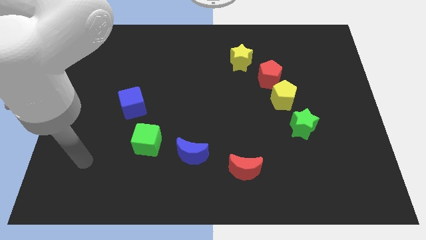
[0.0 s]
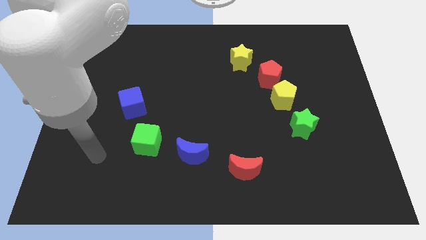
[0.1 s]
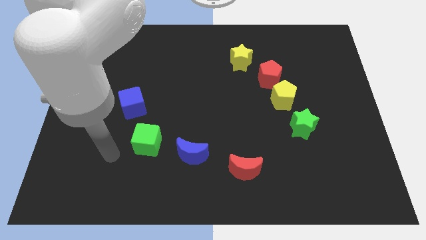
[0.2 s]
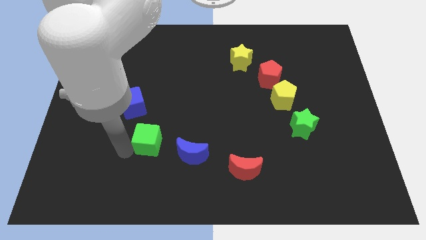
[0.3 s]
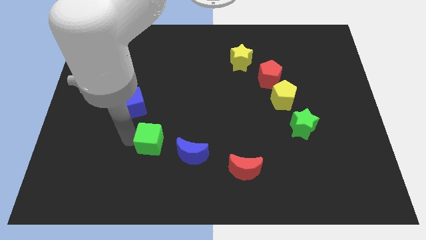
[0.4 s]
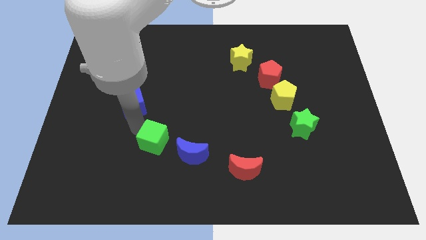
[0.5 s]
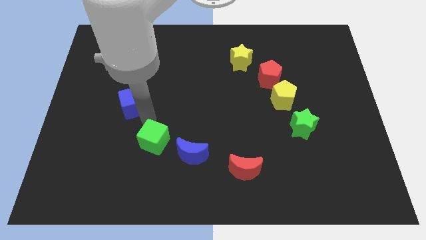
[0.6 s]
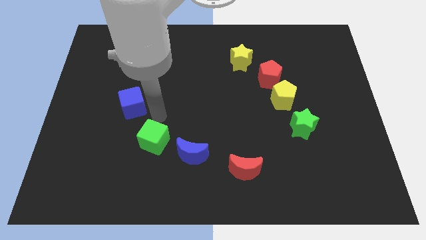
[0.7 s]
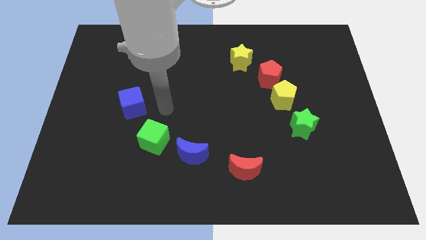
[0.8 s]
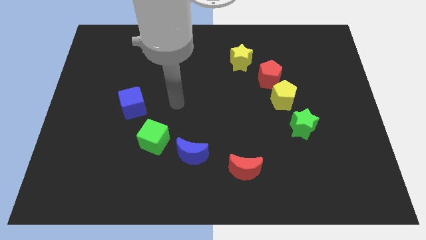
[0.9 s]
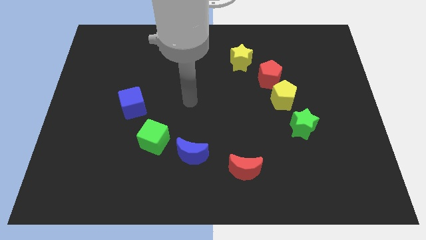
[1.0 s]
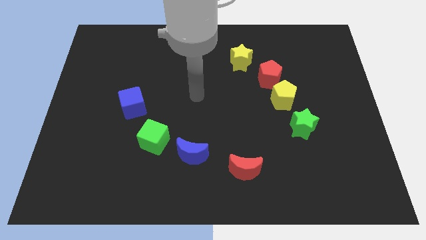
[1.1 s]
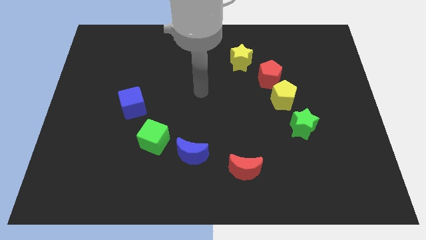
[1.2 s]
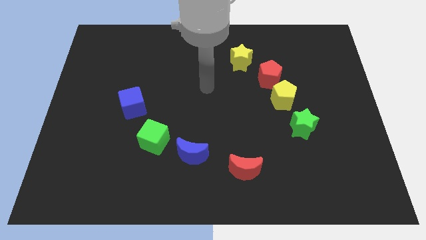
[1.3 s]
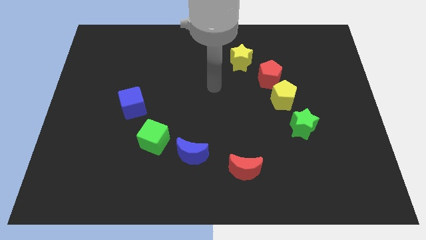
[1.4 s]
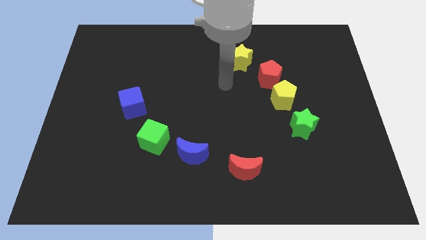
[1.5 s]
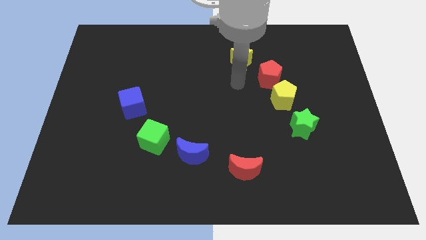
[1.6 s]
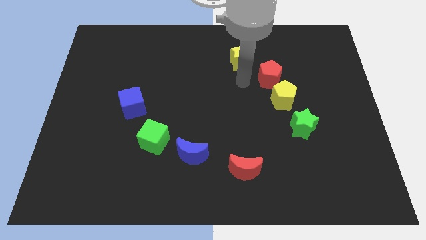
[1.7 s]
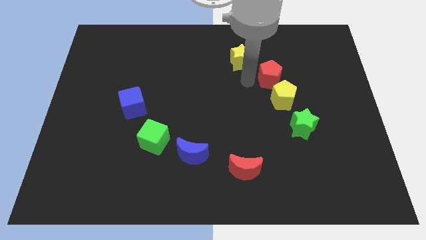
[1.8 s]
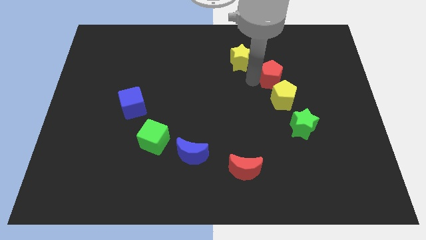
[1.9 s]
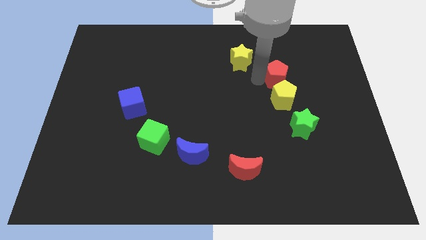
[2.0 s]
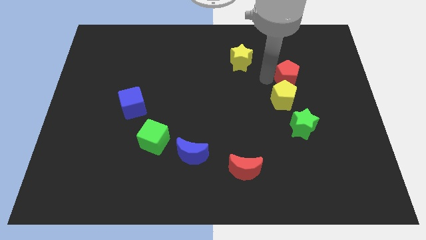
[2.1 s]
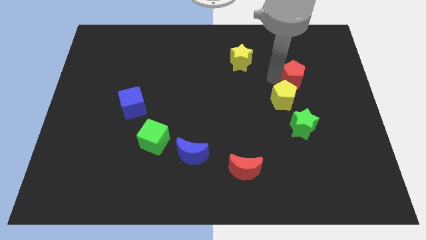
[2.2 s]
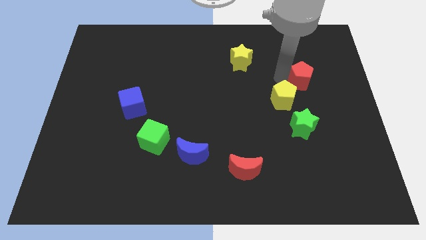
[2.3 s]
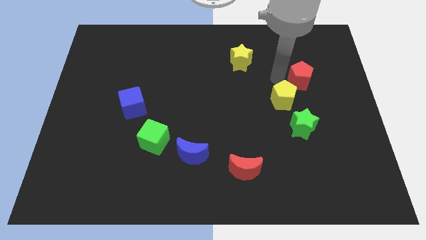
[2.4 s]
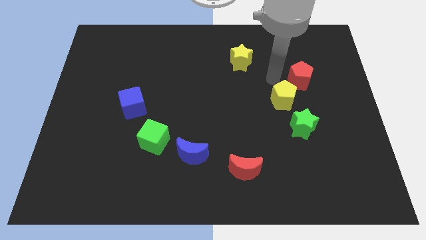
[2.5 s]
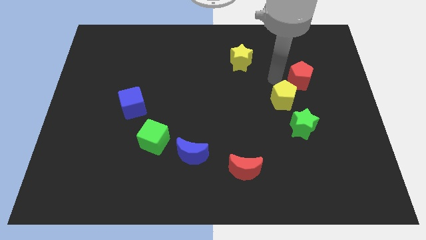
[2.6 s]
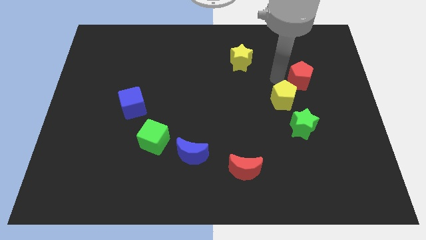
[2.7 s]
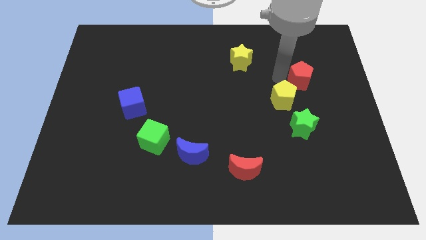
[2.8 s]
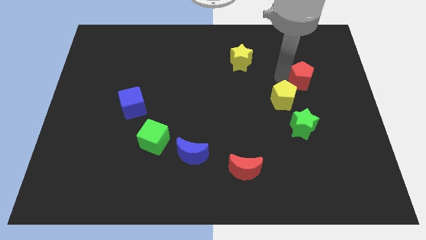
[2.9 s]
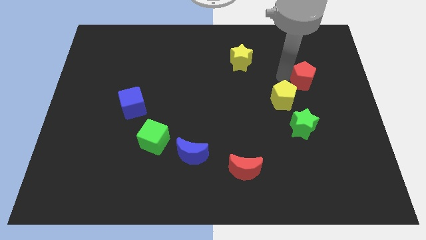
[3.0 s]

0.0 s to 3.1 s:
separate the red pentagon from the yellow pentagon and yellow star

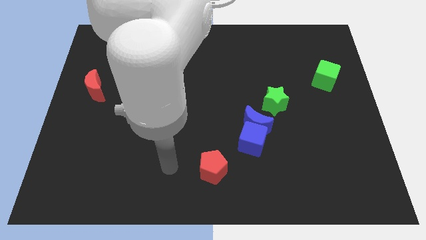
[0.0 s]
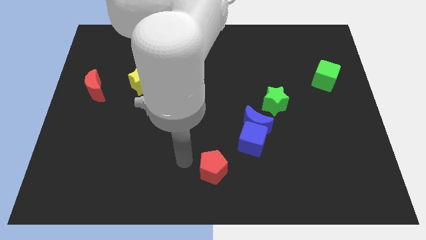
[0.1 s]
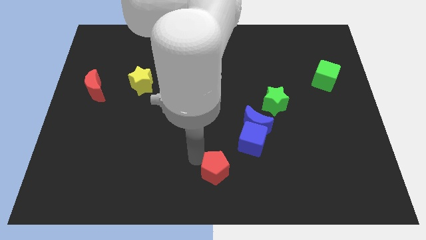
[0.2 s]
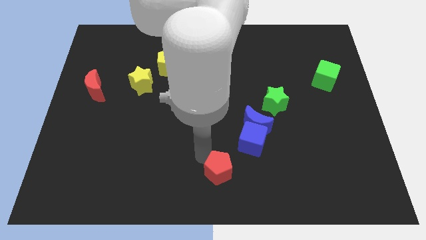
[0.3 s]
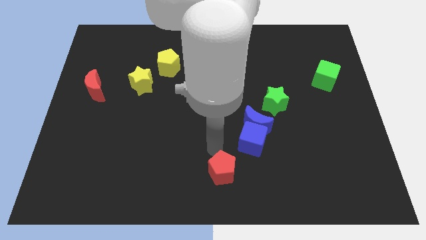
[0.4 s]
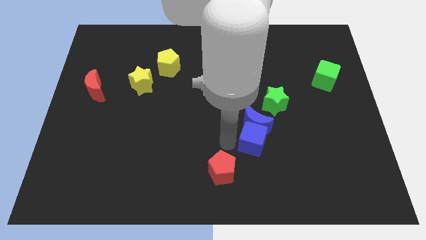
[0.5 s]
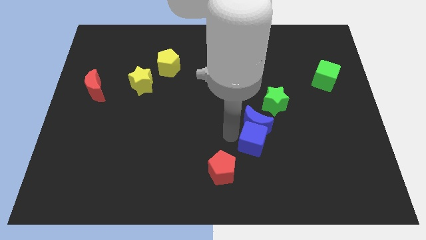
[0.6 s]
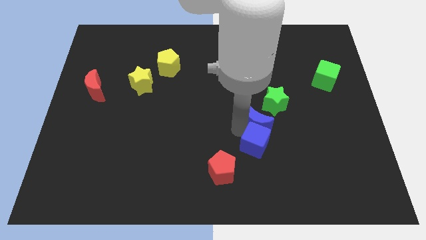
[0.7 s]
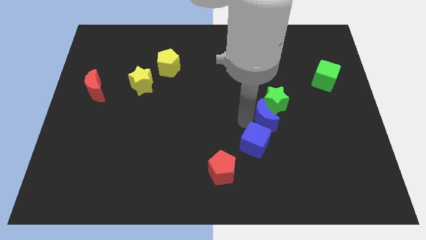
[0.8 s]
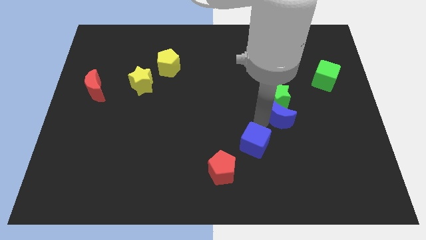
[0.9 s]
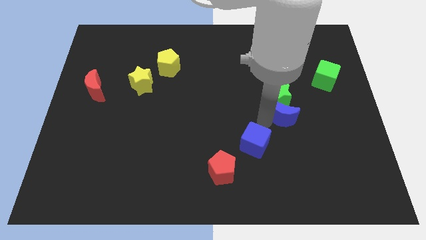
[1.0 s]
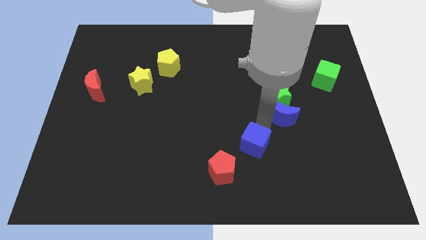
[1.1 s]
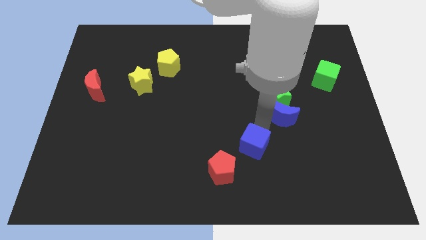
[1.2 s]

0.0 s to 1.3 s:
separate the blue cube from the blue moon

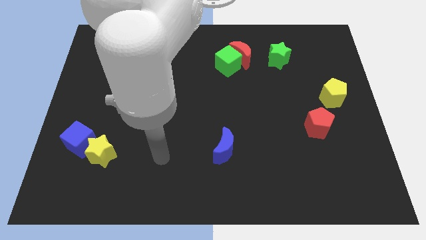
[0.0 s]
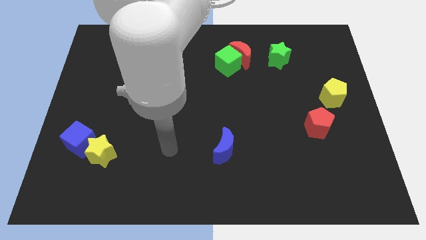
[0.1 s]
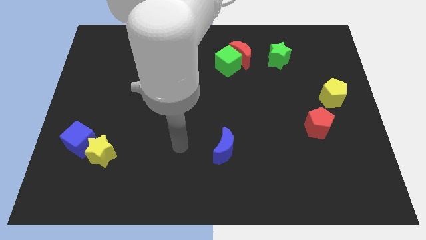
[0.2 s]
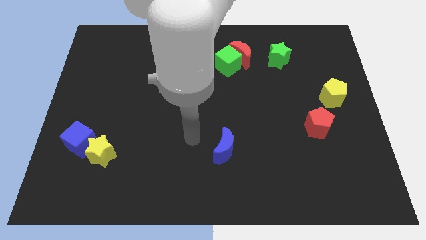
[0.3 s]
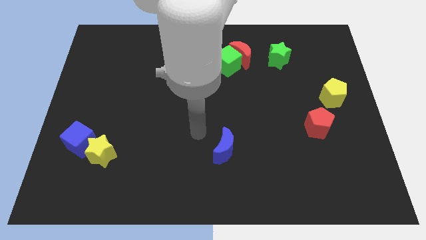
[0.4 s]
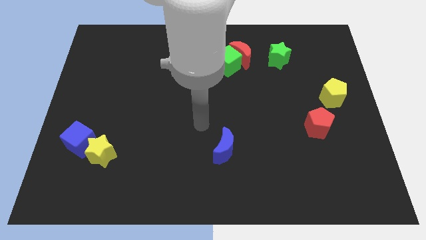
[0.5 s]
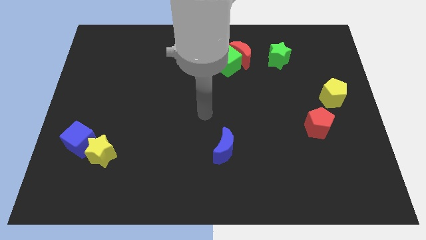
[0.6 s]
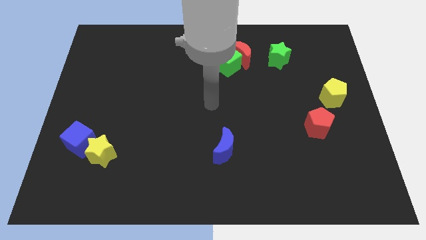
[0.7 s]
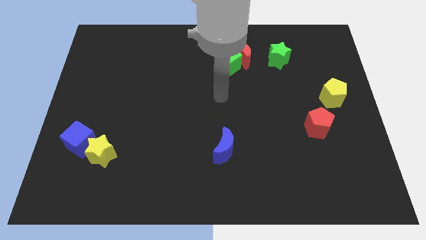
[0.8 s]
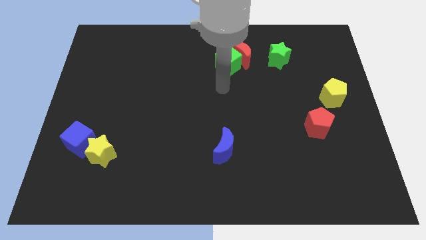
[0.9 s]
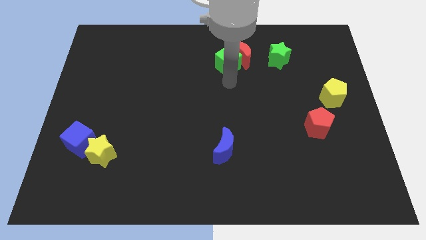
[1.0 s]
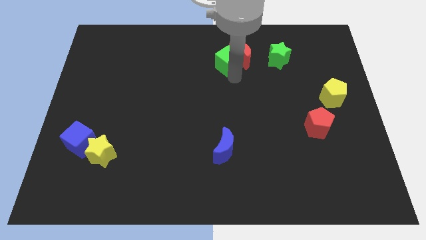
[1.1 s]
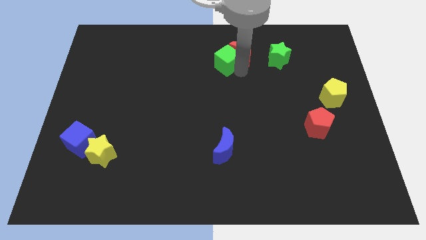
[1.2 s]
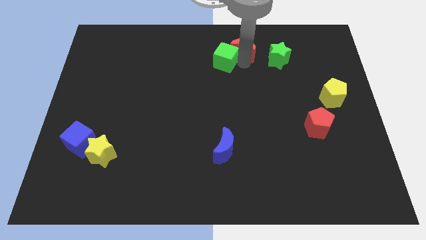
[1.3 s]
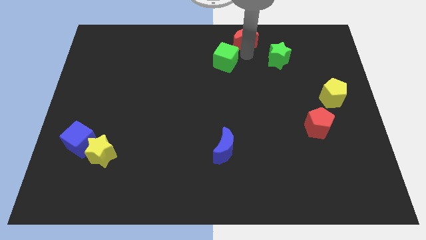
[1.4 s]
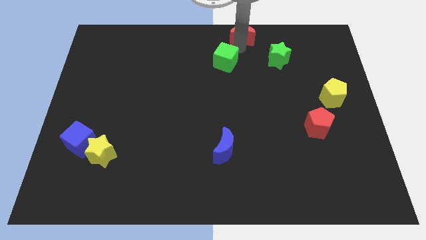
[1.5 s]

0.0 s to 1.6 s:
separate the green cube from the red moon

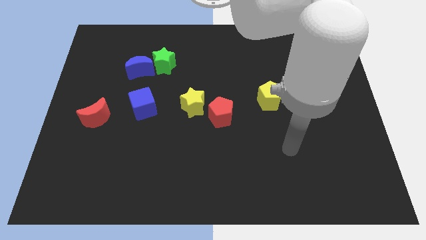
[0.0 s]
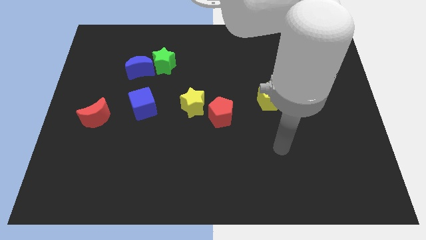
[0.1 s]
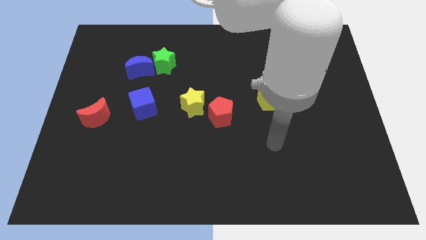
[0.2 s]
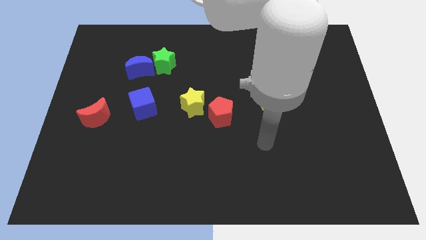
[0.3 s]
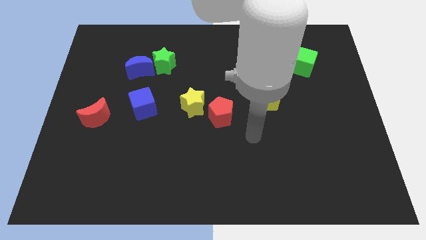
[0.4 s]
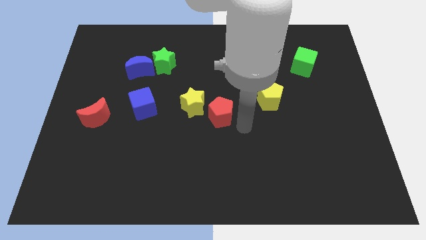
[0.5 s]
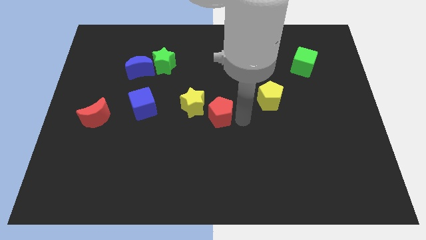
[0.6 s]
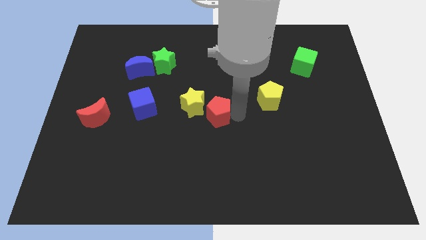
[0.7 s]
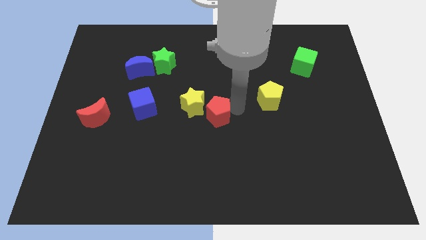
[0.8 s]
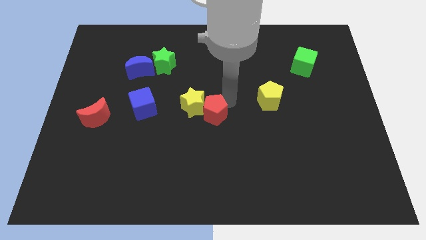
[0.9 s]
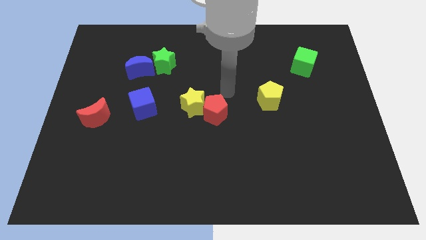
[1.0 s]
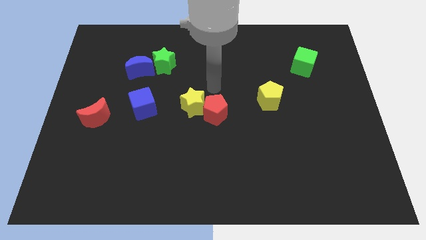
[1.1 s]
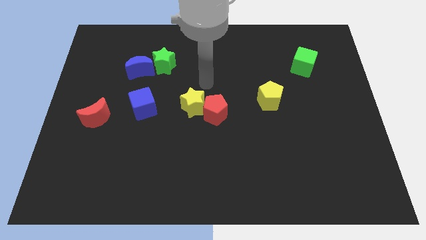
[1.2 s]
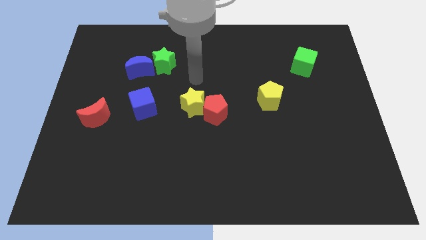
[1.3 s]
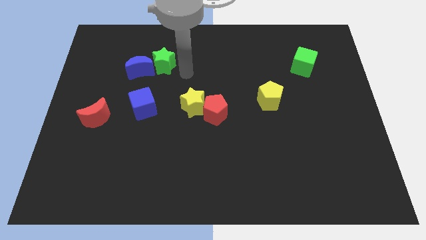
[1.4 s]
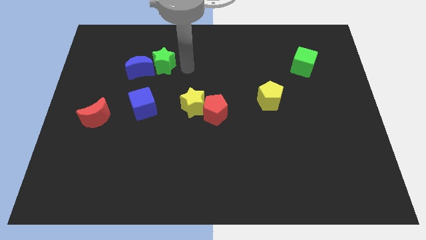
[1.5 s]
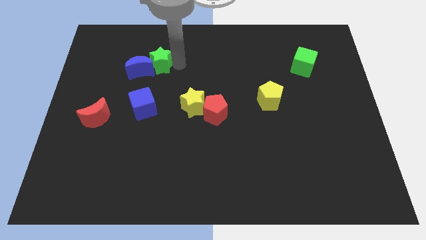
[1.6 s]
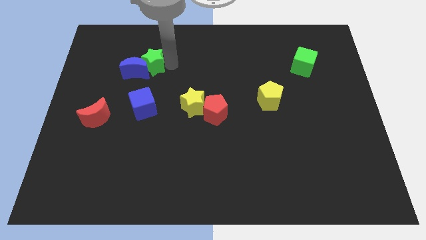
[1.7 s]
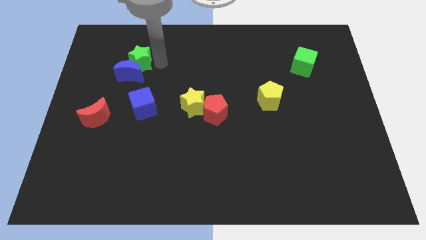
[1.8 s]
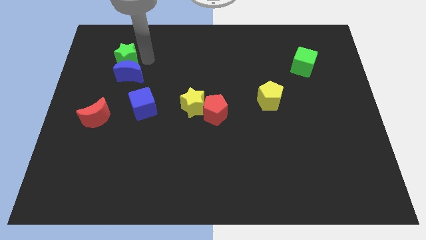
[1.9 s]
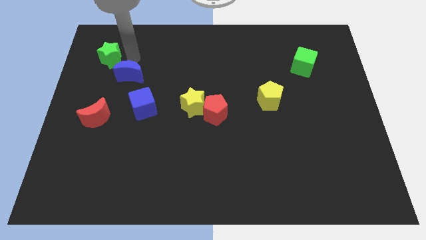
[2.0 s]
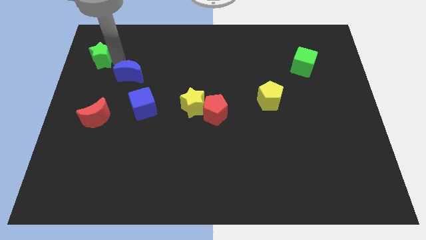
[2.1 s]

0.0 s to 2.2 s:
move the blue moon away from the green star

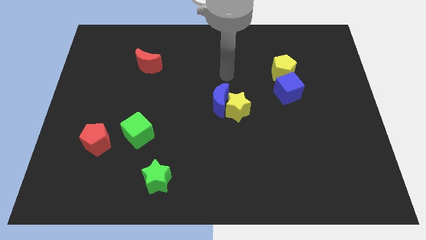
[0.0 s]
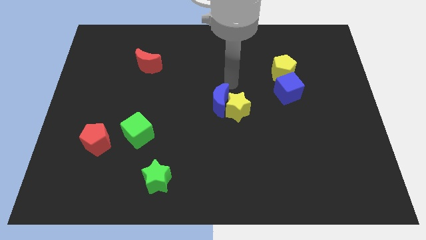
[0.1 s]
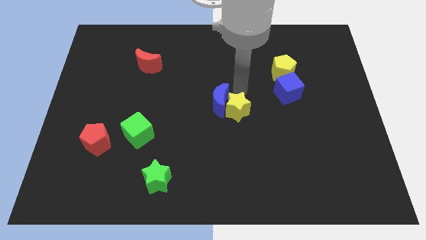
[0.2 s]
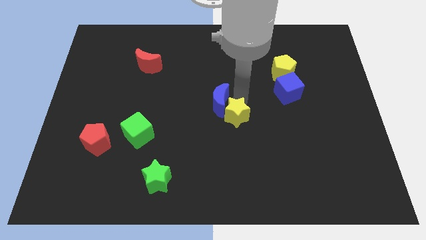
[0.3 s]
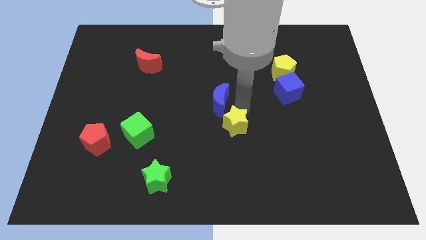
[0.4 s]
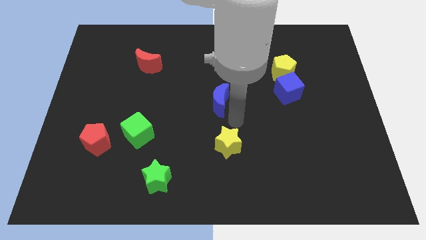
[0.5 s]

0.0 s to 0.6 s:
separate the blue moon from the yellow star

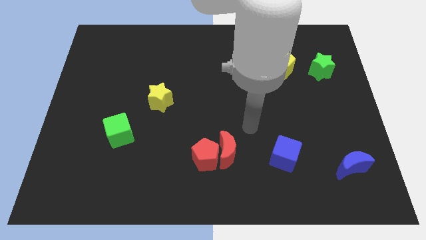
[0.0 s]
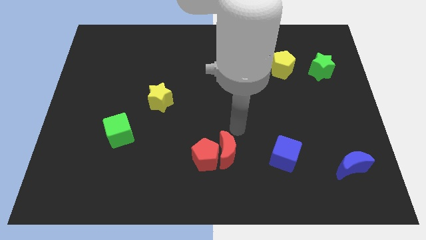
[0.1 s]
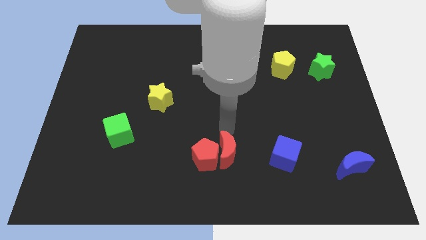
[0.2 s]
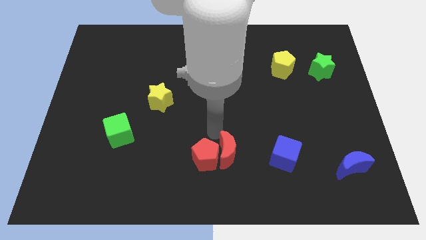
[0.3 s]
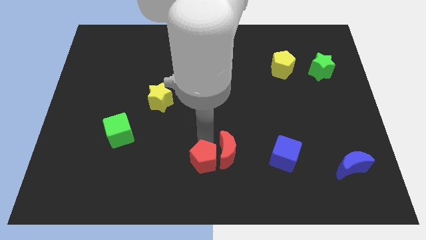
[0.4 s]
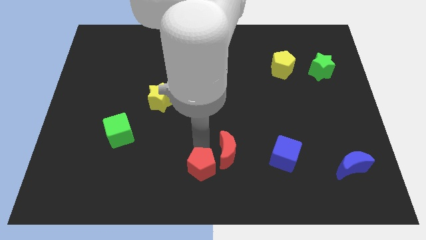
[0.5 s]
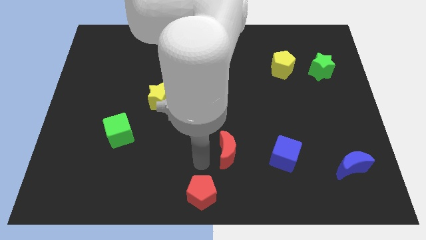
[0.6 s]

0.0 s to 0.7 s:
pull the red moon apart from the red pentagon
